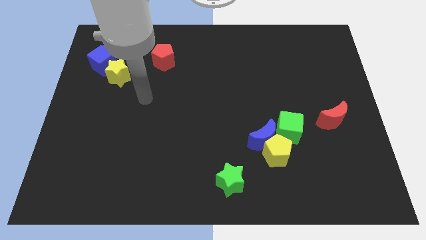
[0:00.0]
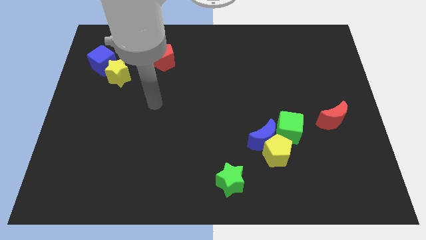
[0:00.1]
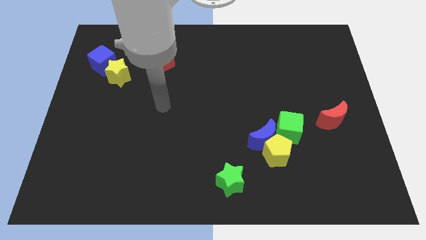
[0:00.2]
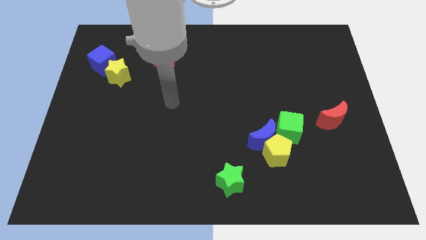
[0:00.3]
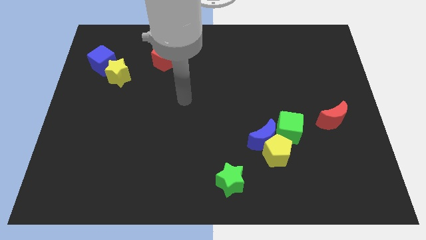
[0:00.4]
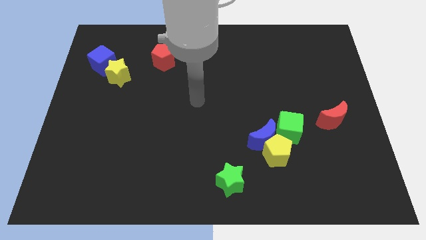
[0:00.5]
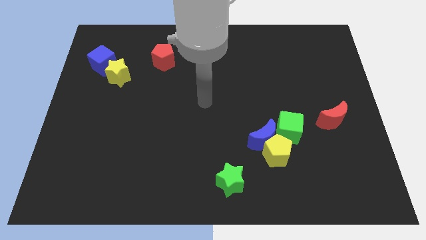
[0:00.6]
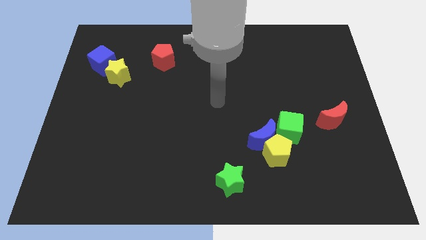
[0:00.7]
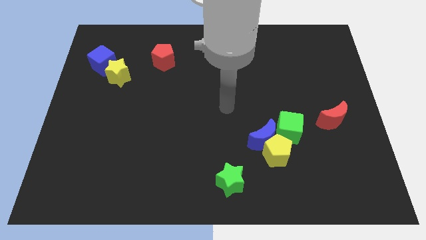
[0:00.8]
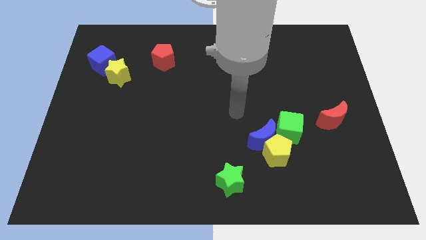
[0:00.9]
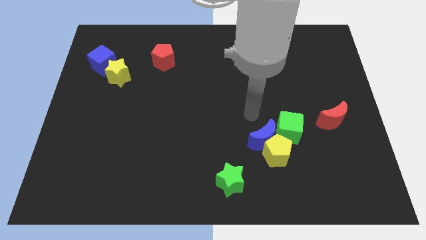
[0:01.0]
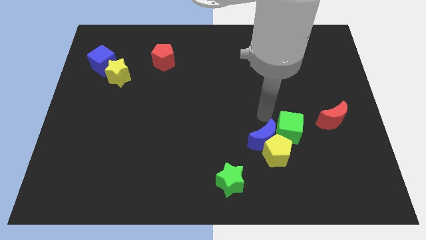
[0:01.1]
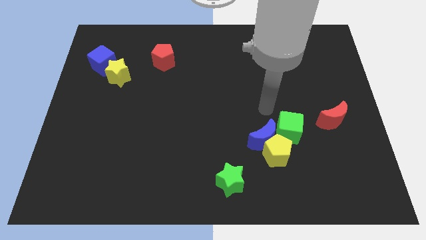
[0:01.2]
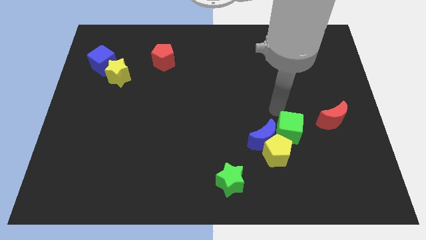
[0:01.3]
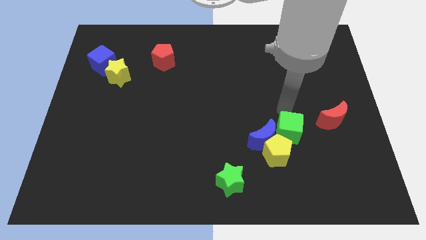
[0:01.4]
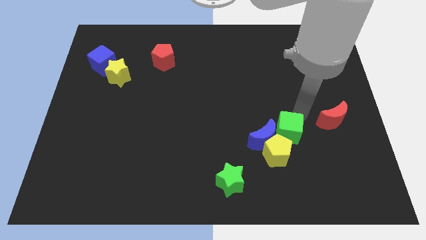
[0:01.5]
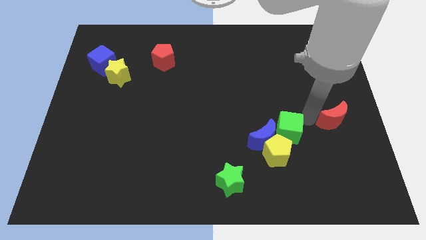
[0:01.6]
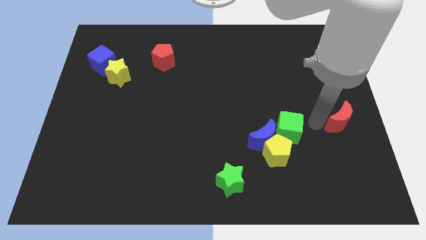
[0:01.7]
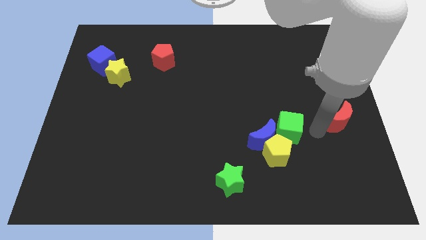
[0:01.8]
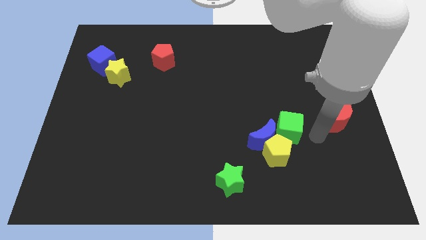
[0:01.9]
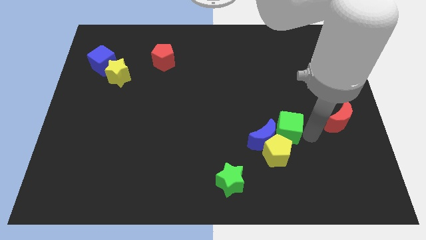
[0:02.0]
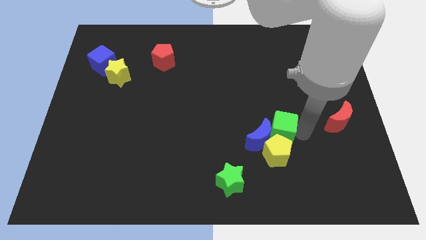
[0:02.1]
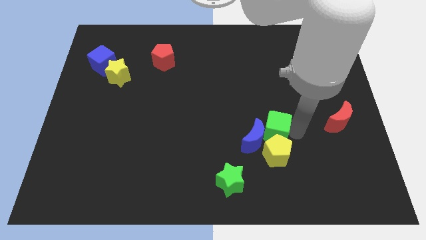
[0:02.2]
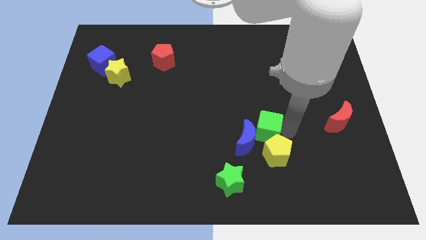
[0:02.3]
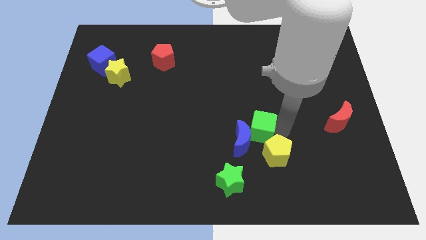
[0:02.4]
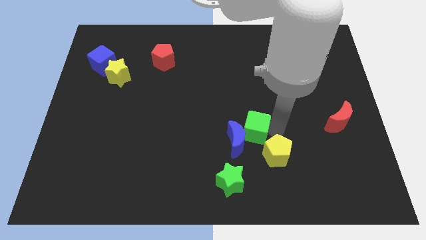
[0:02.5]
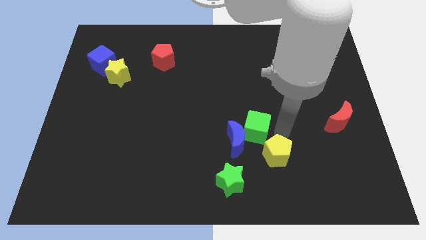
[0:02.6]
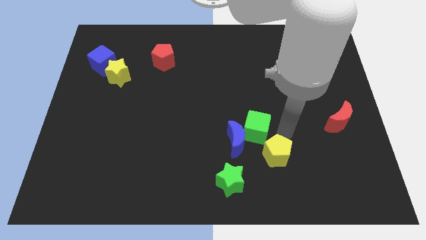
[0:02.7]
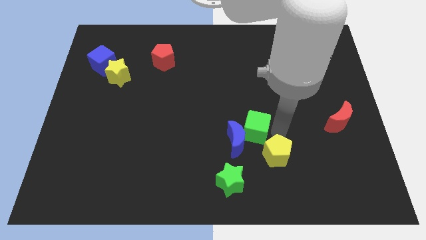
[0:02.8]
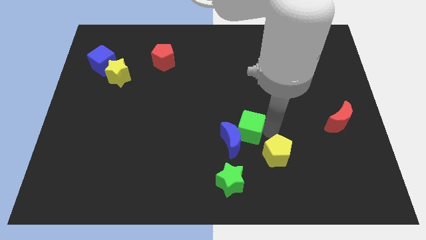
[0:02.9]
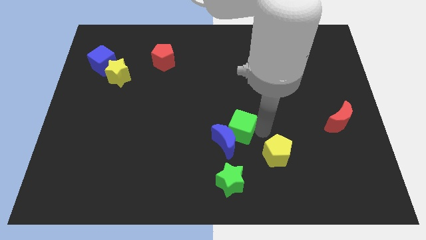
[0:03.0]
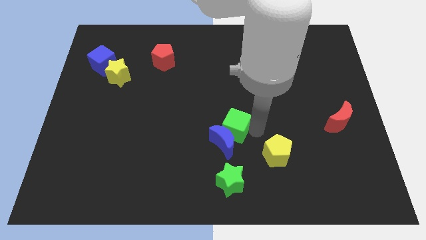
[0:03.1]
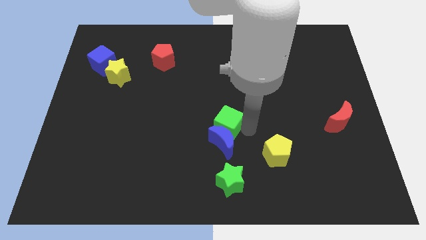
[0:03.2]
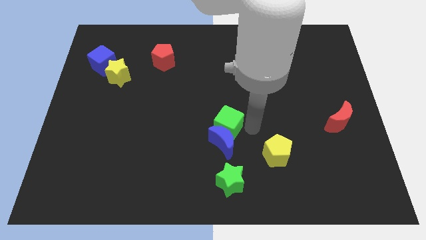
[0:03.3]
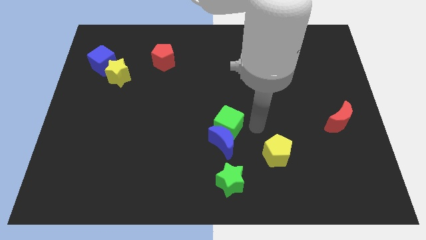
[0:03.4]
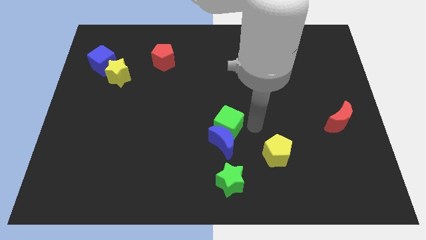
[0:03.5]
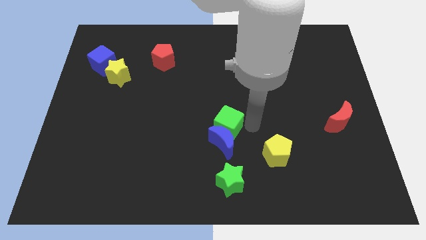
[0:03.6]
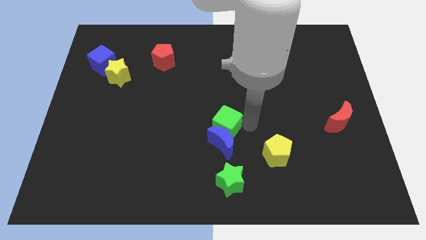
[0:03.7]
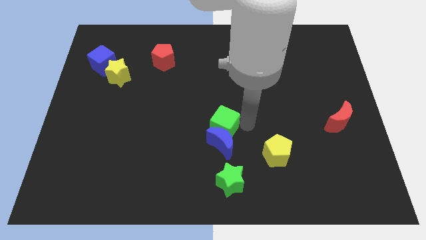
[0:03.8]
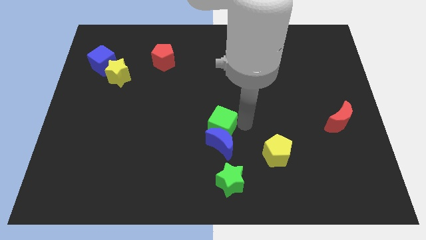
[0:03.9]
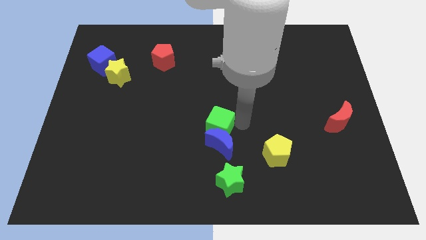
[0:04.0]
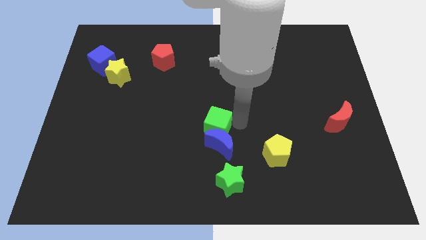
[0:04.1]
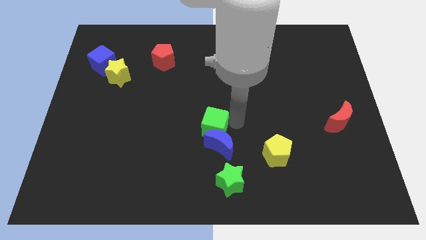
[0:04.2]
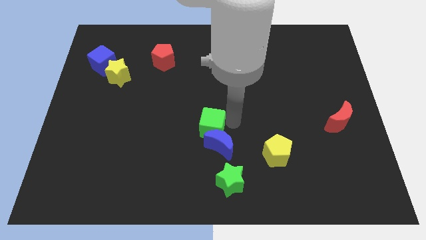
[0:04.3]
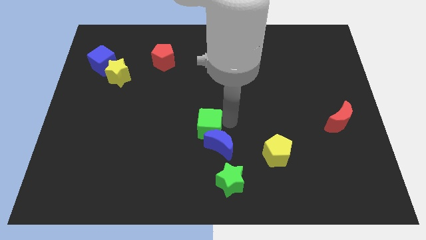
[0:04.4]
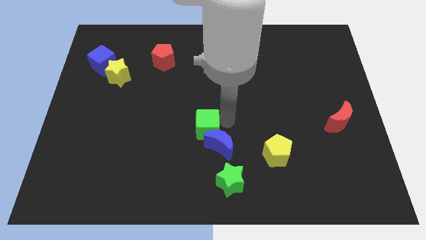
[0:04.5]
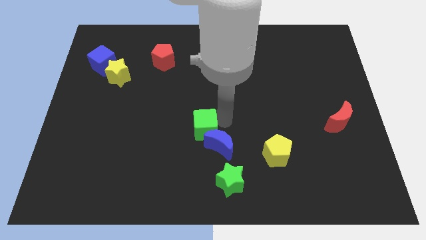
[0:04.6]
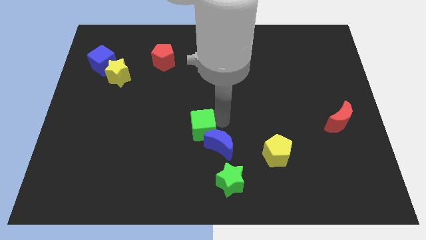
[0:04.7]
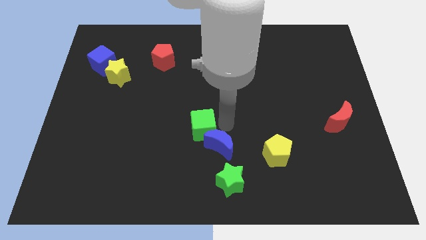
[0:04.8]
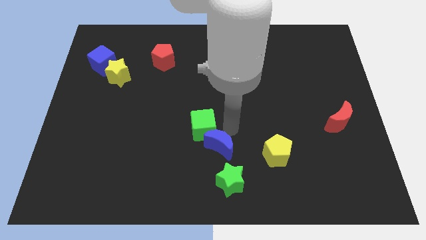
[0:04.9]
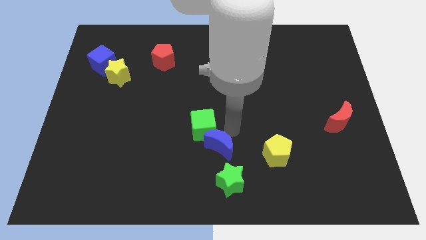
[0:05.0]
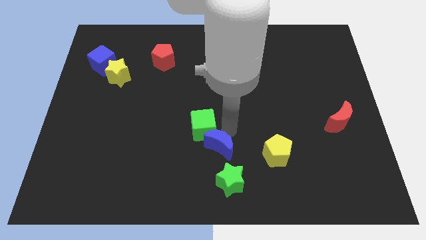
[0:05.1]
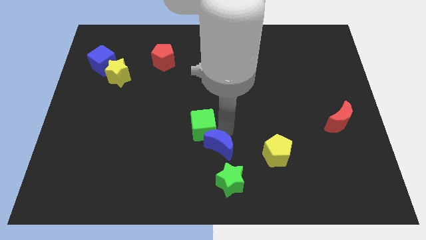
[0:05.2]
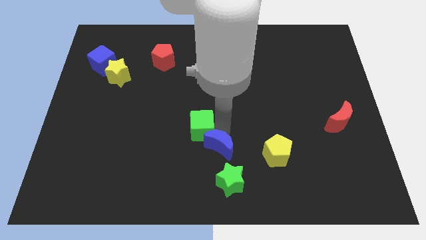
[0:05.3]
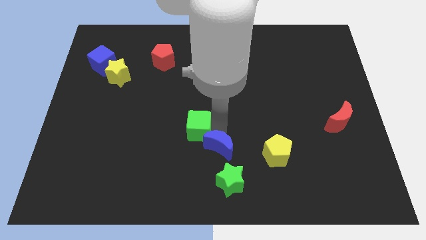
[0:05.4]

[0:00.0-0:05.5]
slide the green cube left

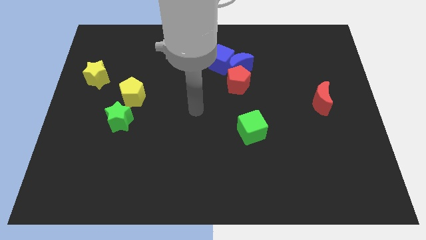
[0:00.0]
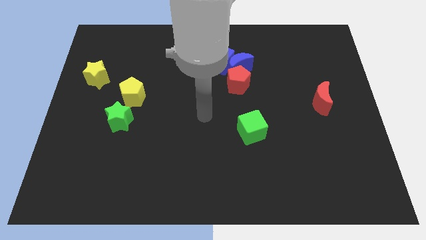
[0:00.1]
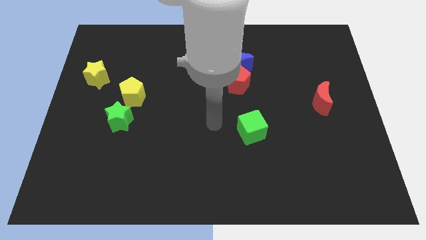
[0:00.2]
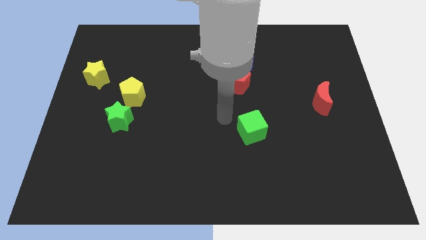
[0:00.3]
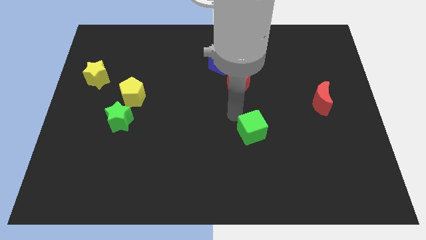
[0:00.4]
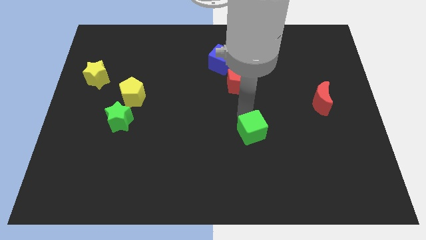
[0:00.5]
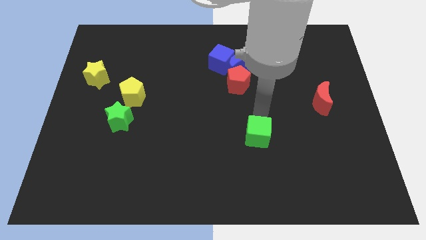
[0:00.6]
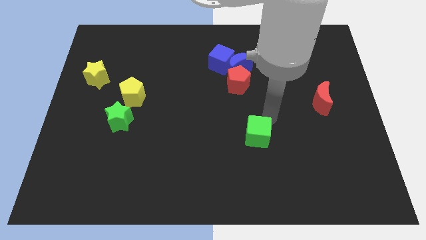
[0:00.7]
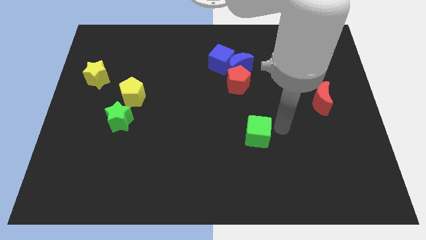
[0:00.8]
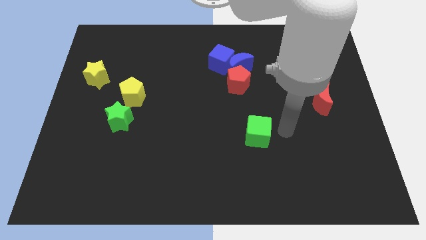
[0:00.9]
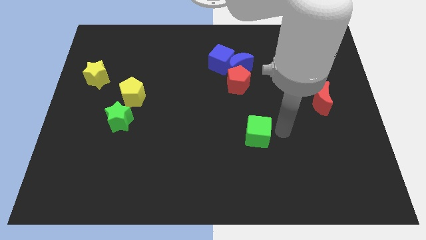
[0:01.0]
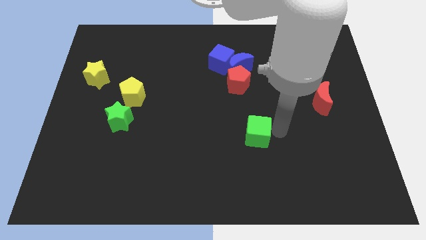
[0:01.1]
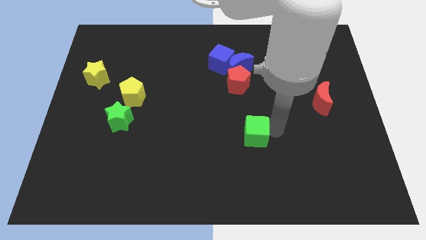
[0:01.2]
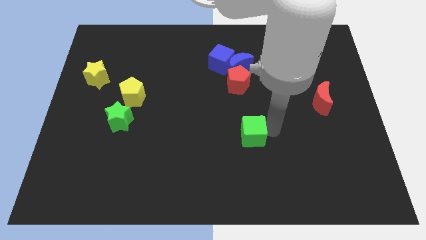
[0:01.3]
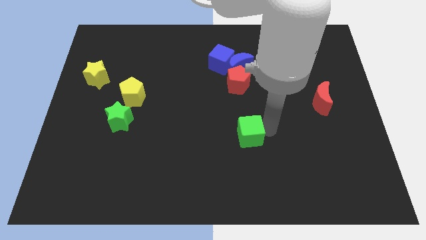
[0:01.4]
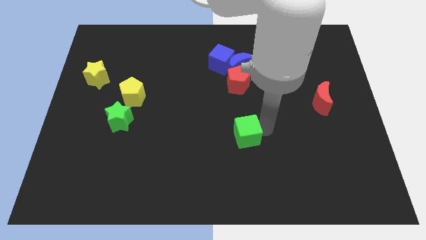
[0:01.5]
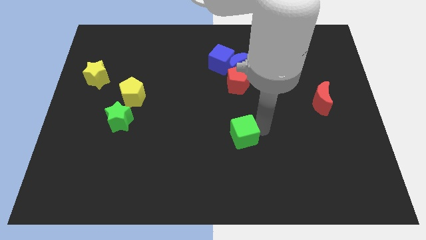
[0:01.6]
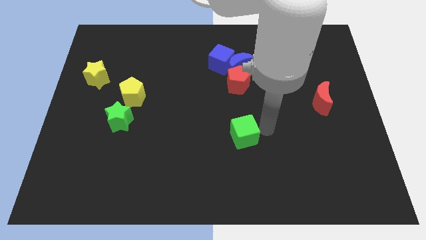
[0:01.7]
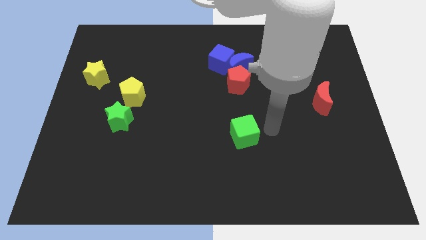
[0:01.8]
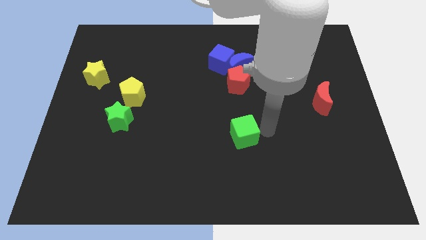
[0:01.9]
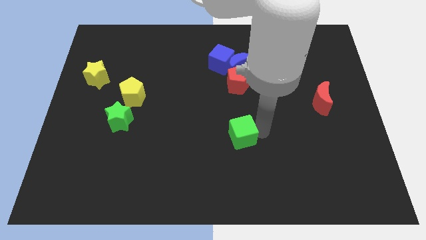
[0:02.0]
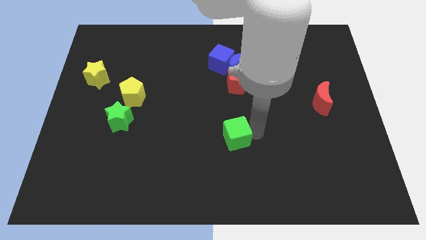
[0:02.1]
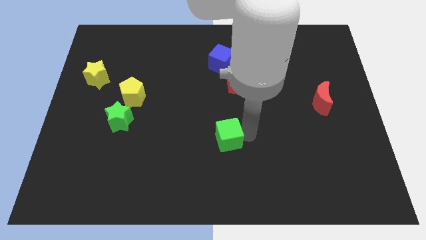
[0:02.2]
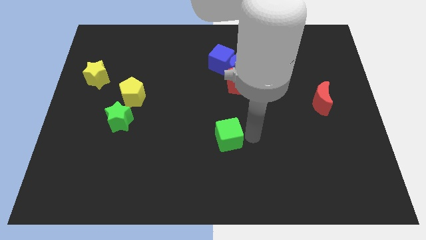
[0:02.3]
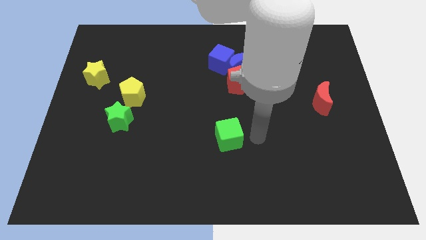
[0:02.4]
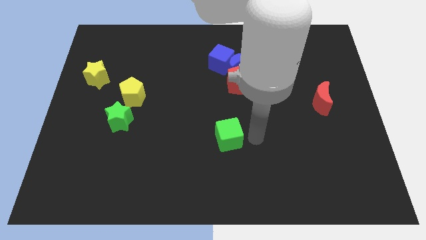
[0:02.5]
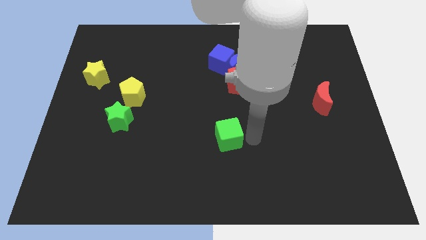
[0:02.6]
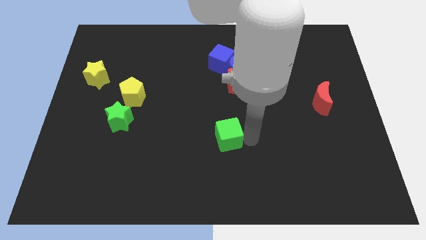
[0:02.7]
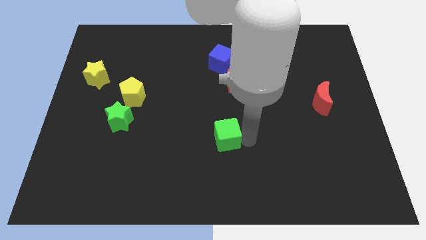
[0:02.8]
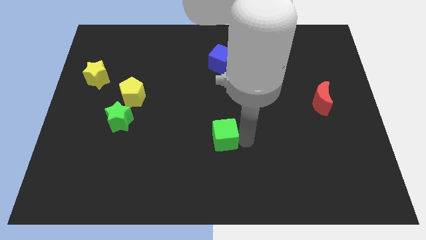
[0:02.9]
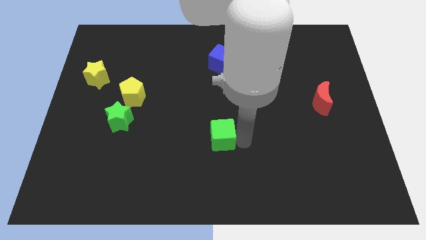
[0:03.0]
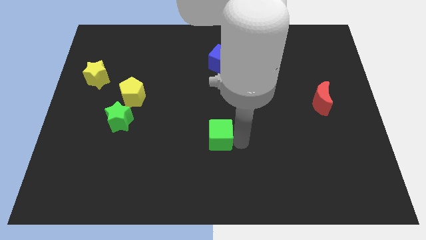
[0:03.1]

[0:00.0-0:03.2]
move the green cube to the left a little

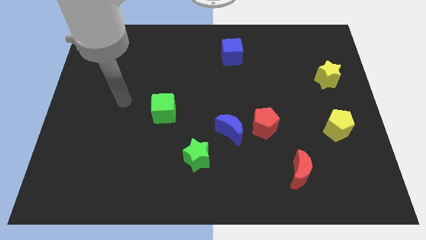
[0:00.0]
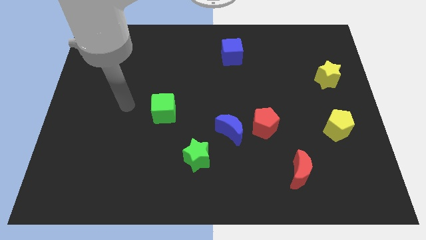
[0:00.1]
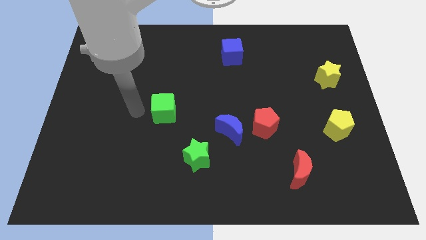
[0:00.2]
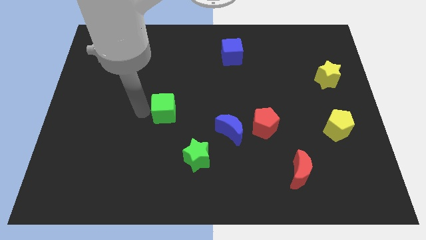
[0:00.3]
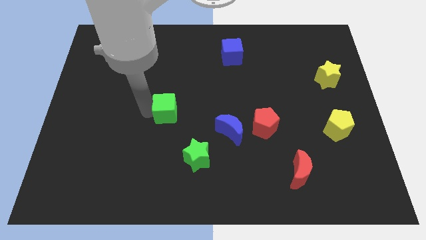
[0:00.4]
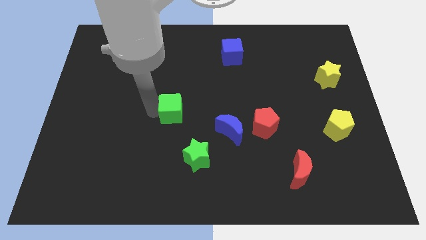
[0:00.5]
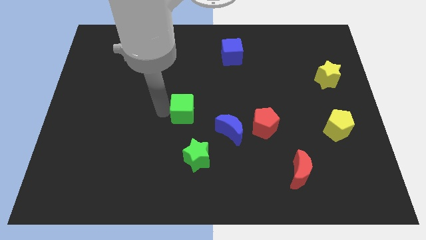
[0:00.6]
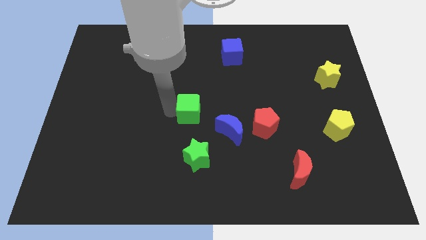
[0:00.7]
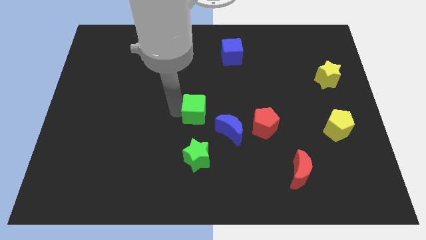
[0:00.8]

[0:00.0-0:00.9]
push the green cube a little bit right
